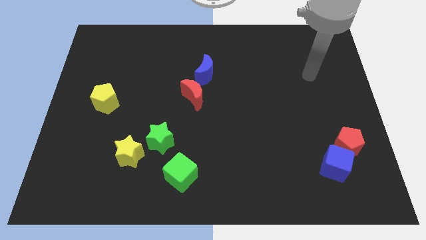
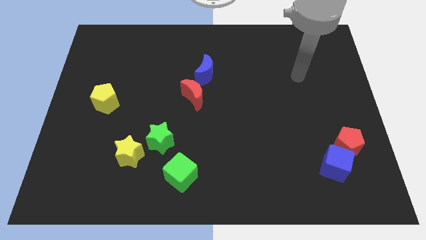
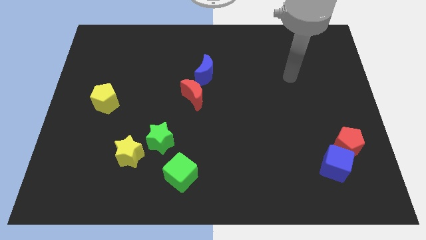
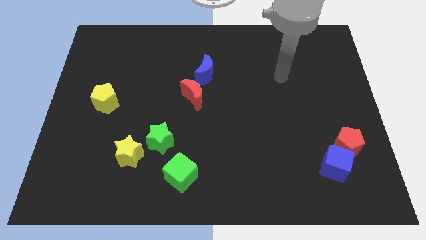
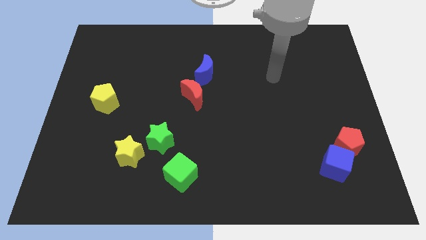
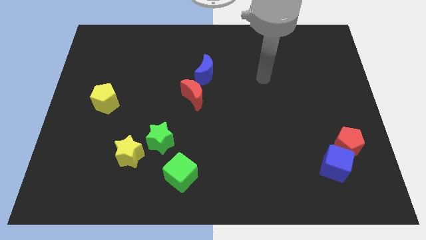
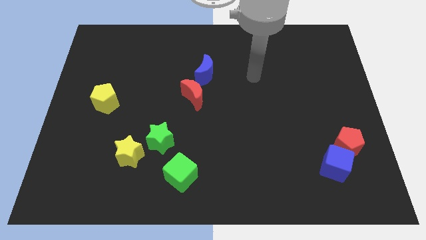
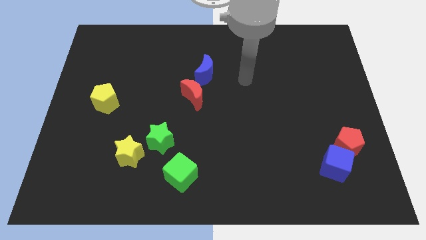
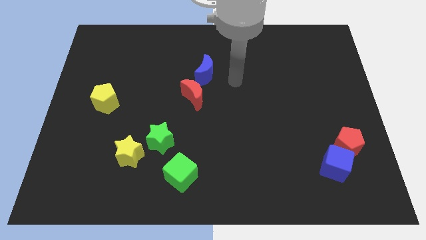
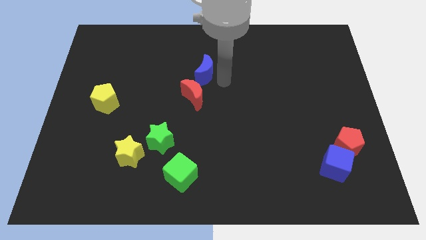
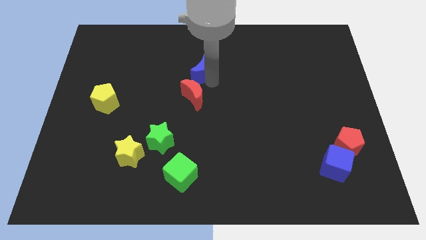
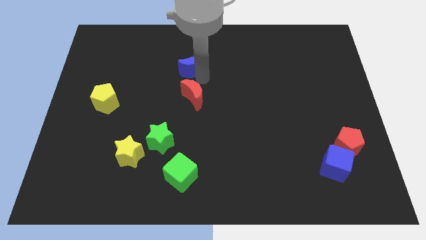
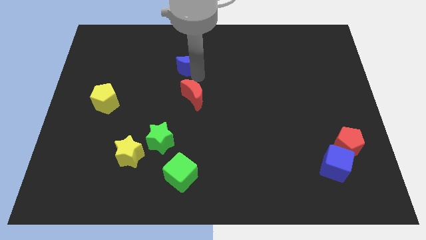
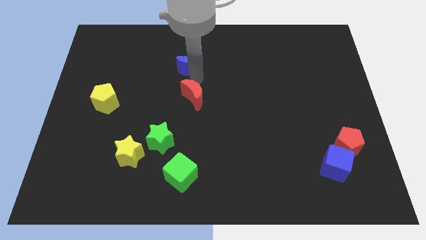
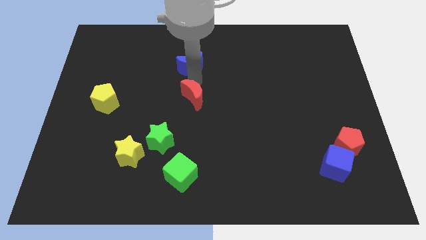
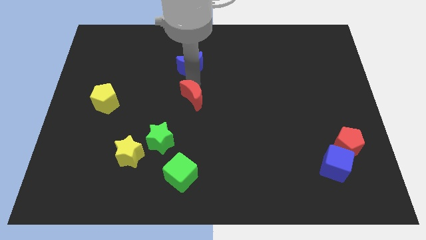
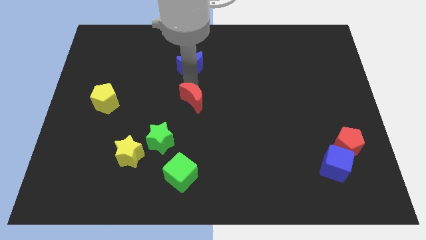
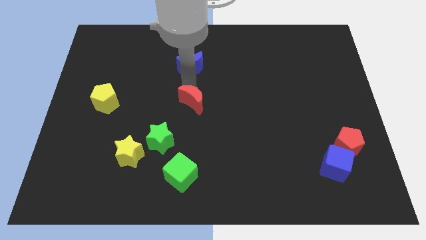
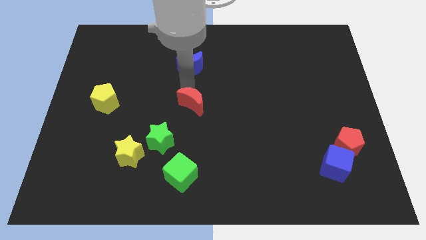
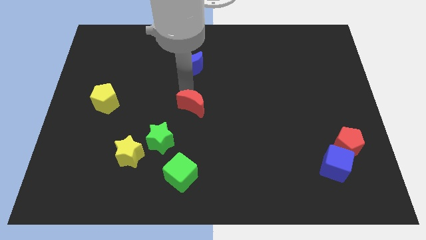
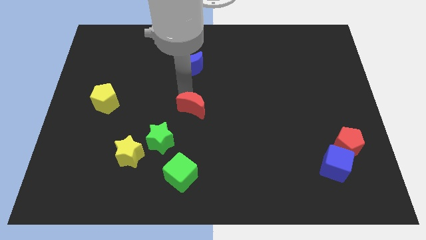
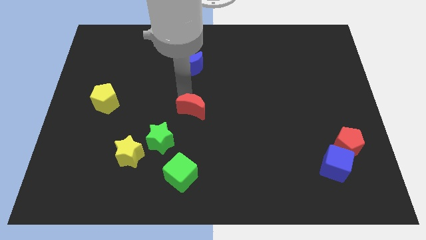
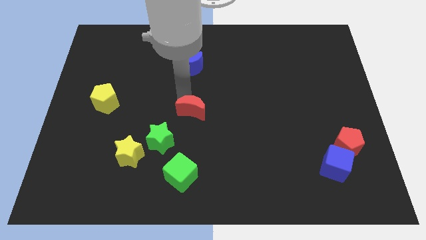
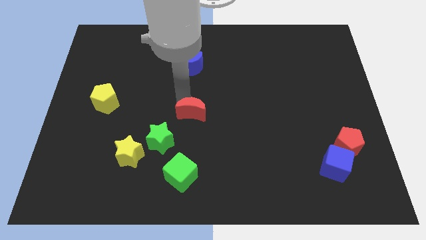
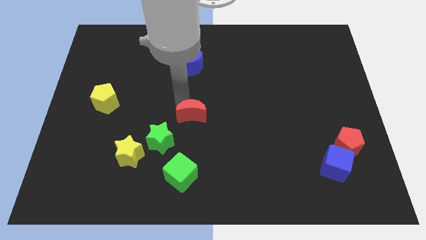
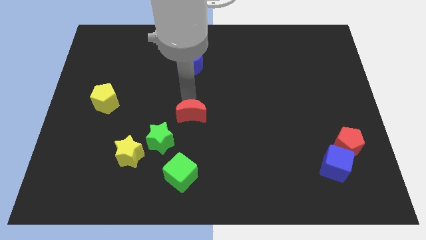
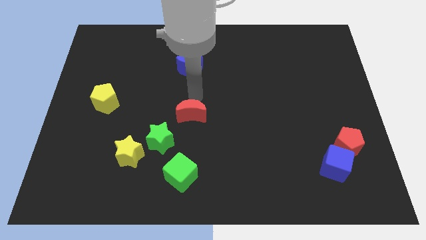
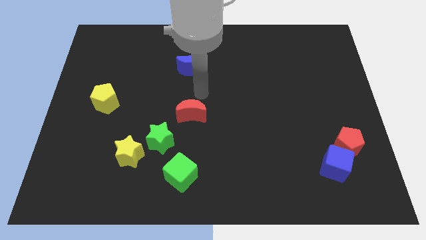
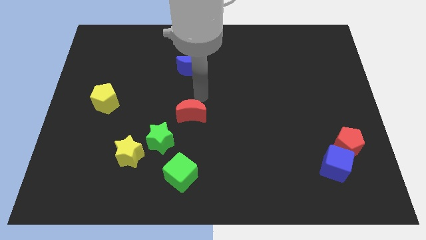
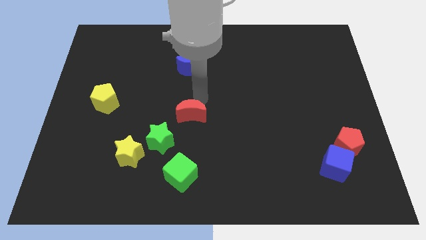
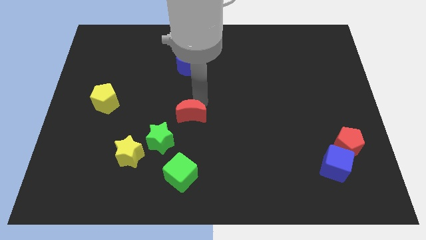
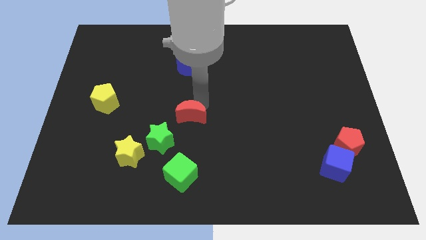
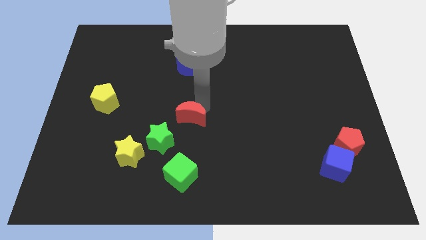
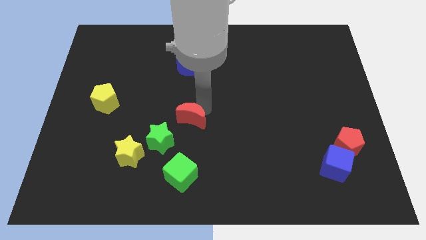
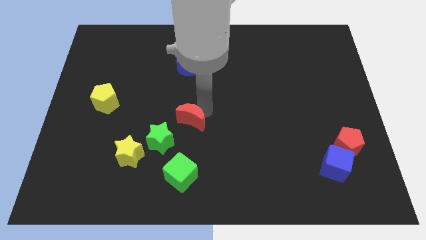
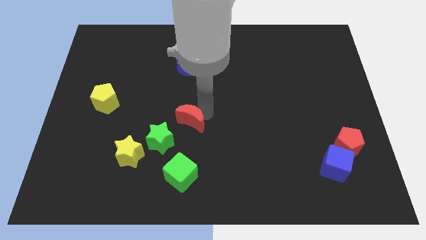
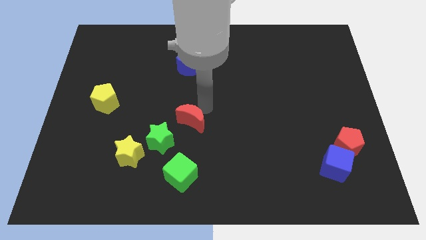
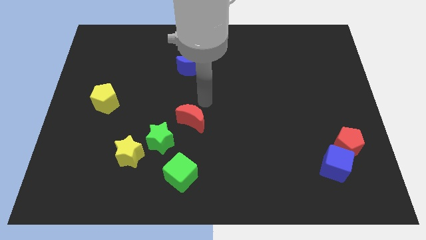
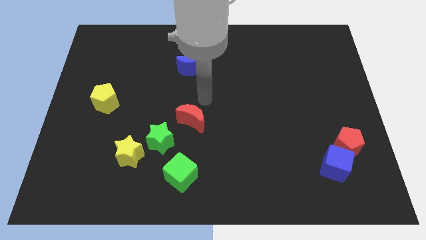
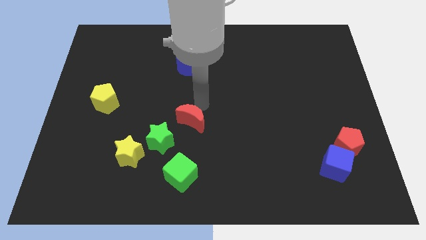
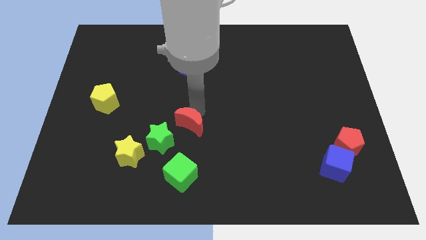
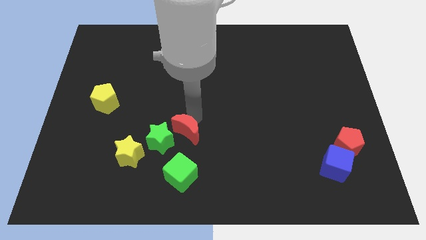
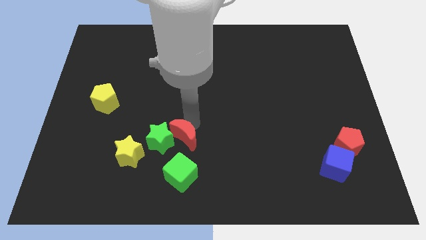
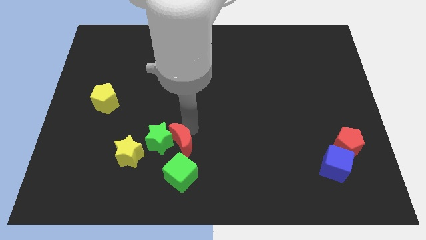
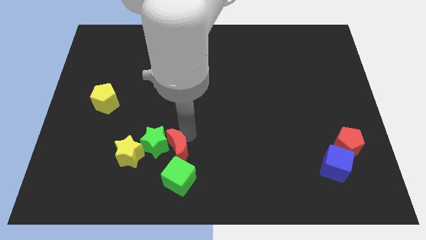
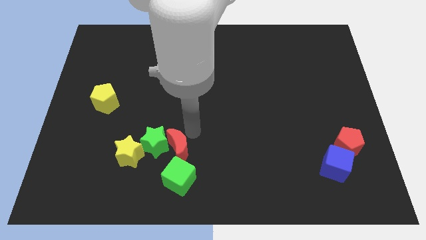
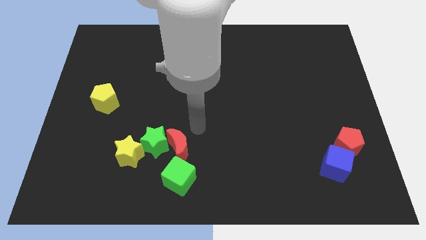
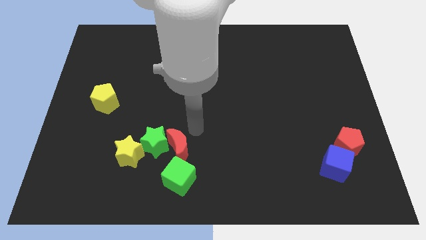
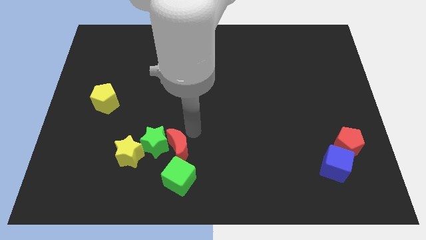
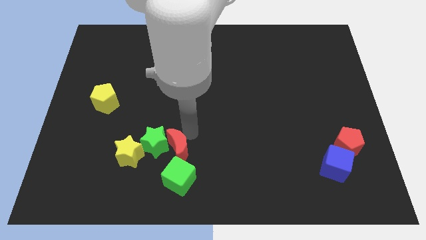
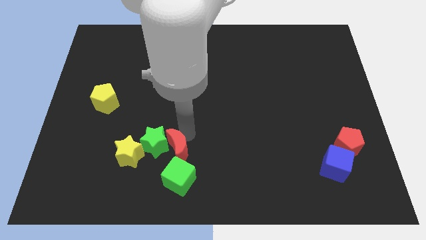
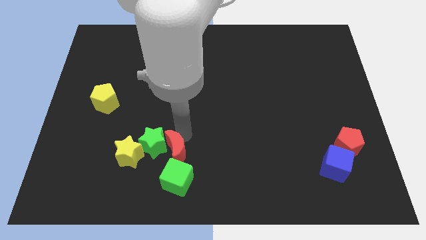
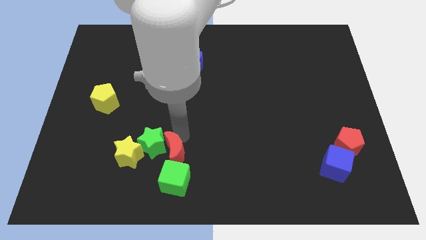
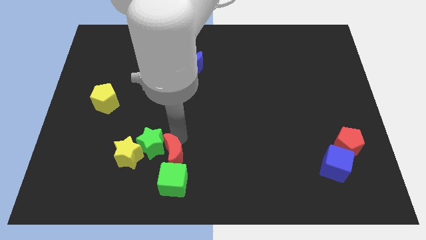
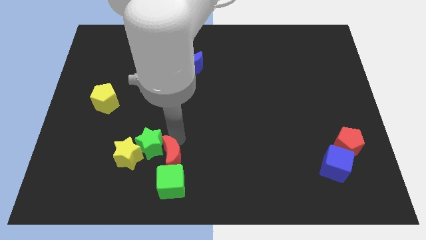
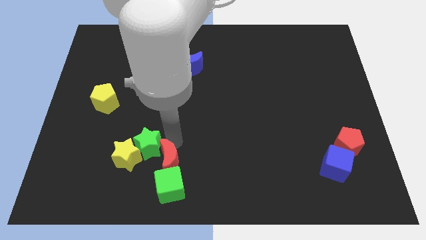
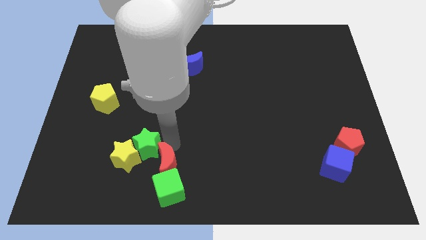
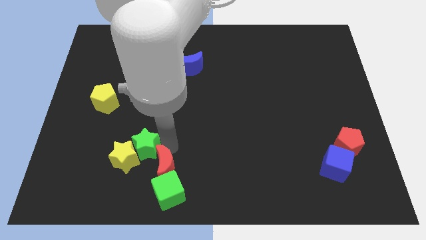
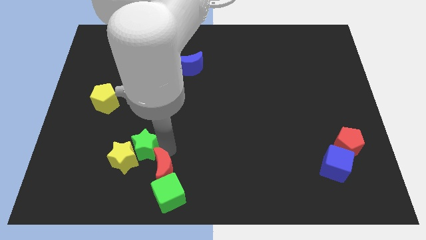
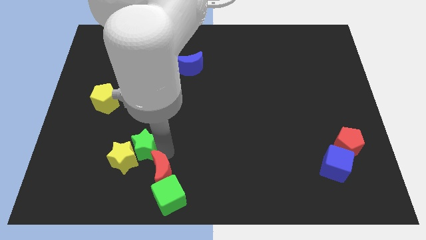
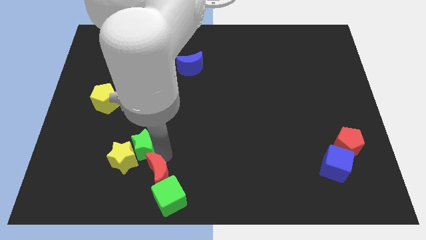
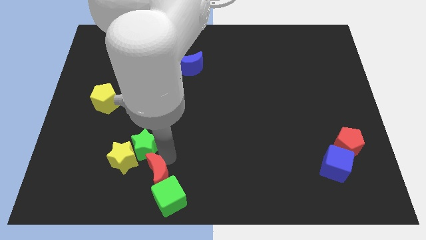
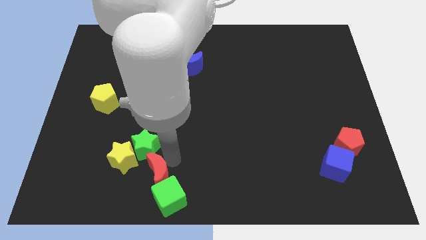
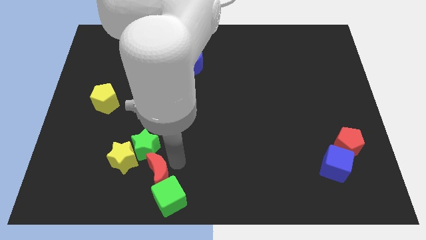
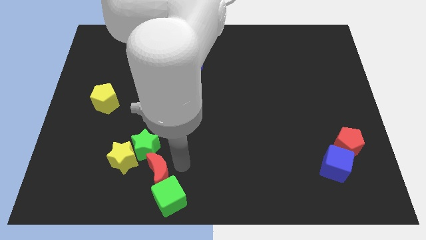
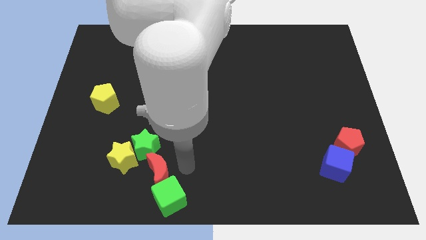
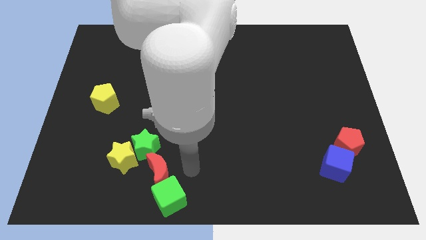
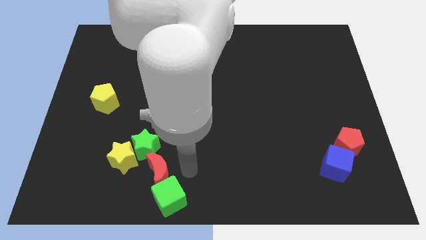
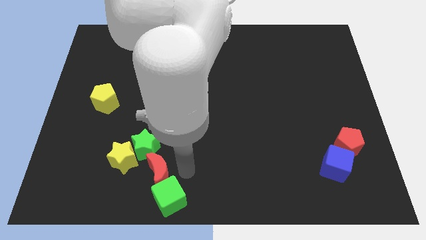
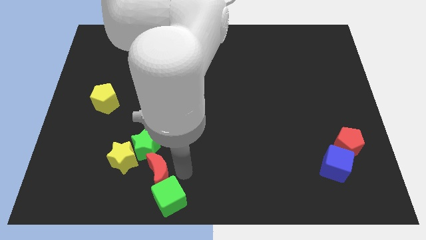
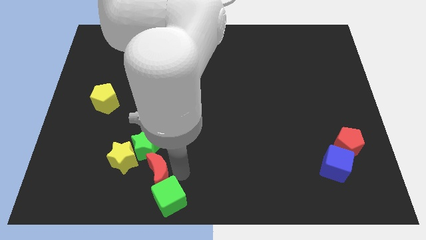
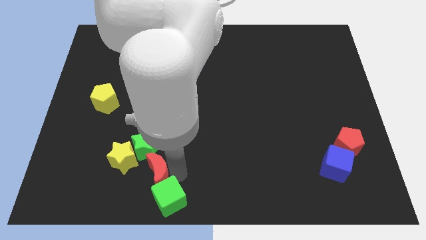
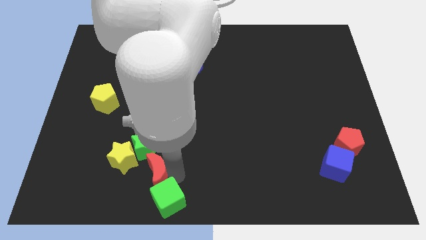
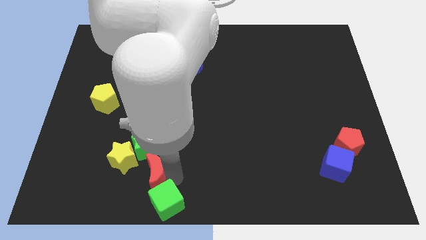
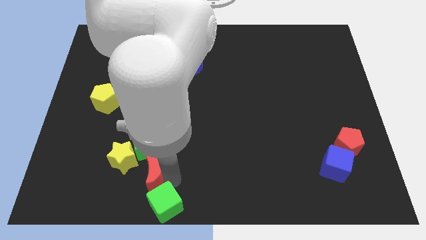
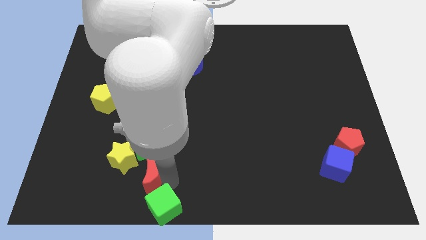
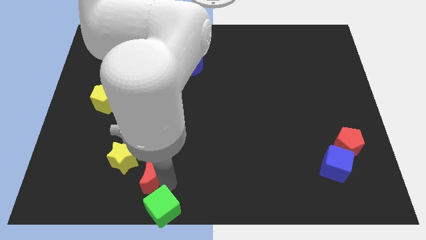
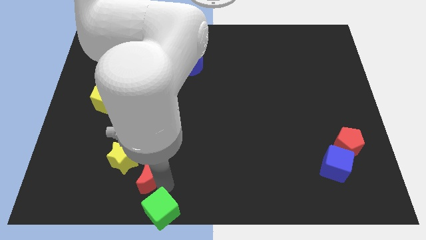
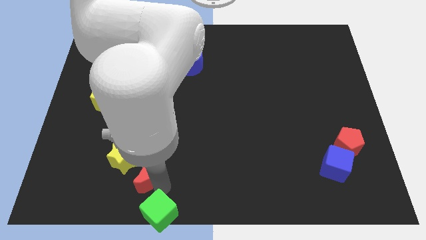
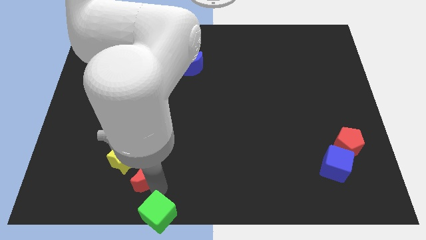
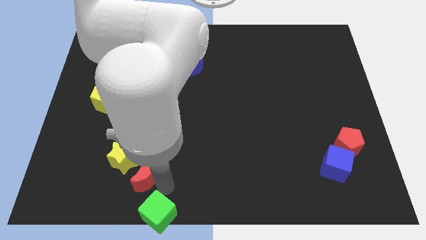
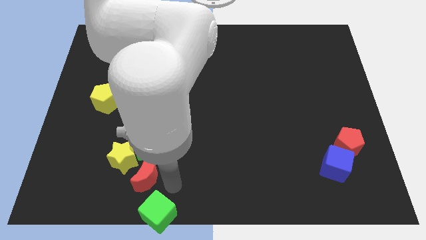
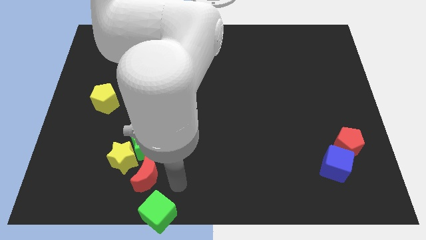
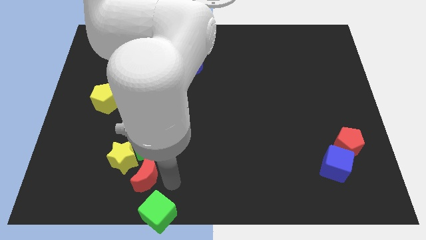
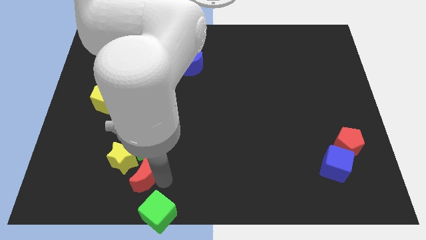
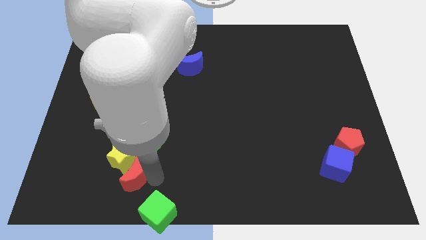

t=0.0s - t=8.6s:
move the red moon to the bottom left of the green star

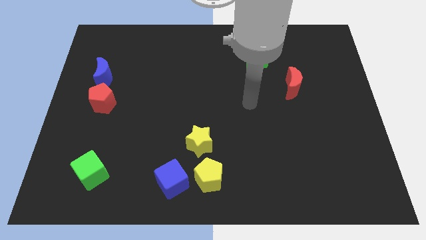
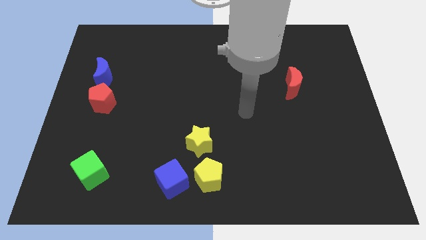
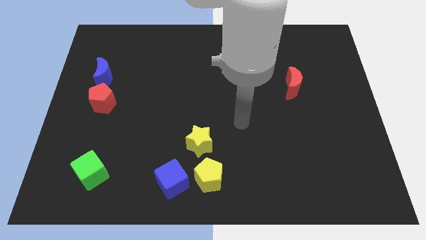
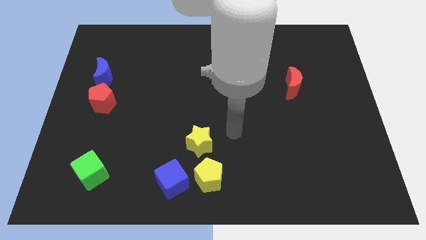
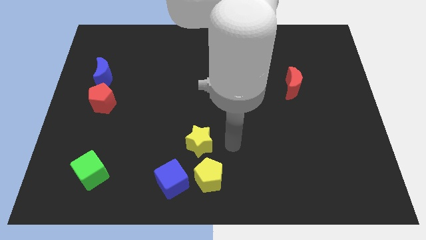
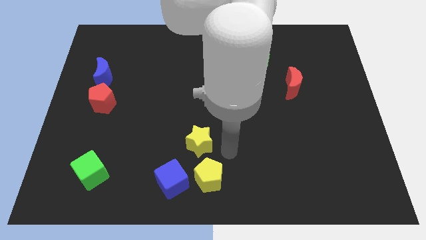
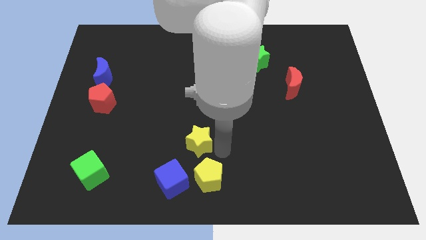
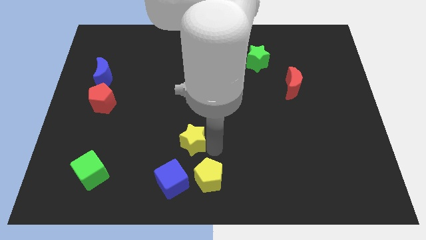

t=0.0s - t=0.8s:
slide the yellow star above the blue cube
